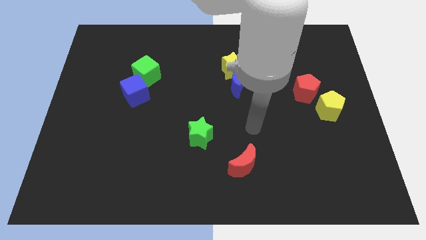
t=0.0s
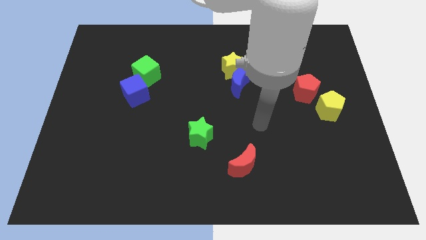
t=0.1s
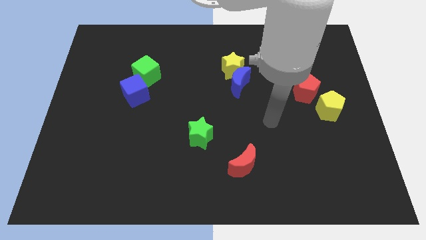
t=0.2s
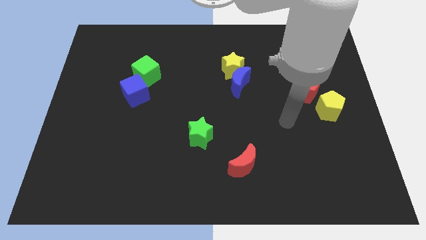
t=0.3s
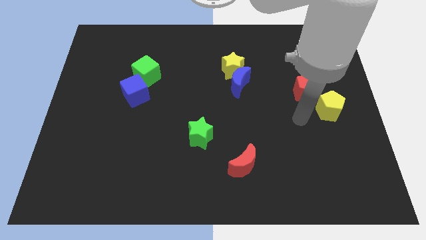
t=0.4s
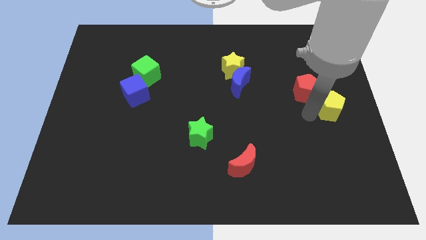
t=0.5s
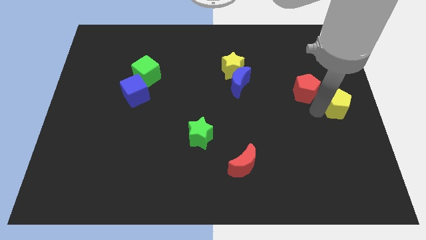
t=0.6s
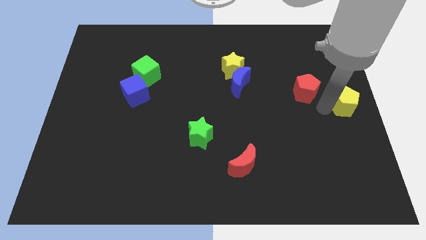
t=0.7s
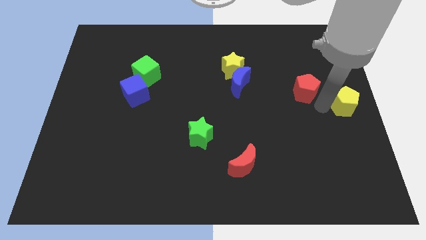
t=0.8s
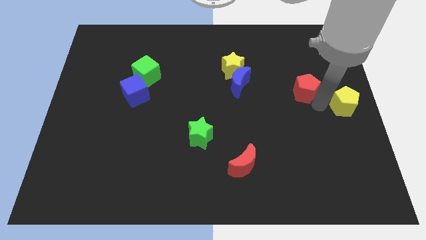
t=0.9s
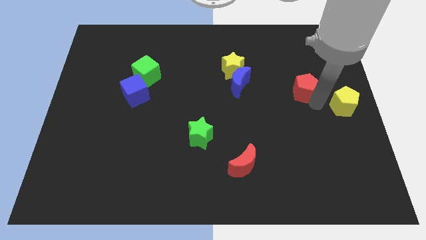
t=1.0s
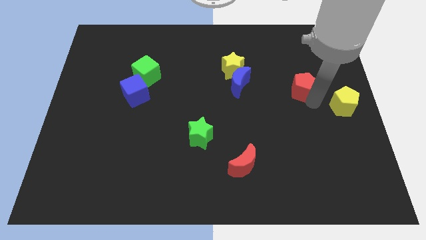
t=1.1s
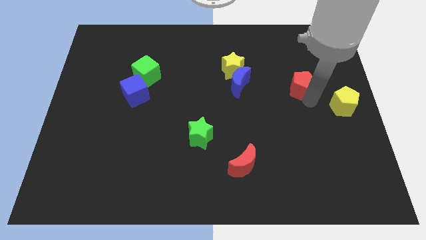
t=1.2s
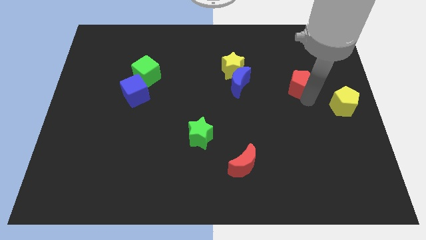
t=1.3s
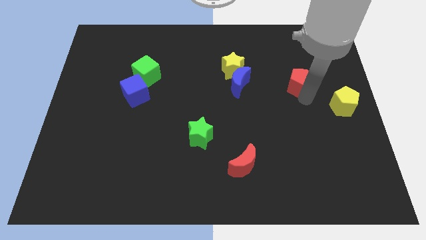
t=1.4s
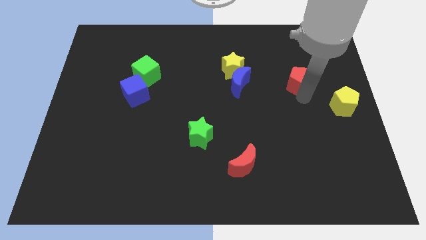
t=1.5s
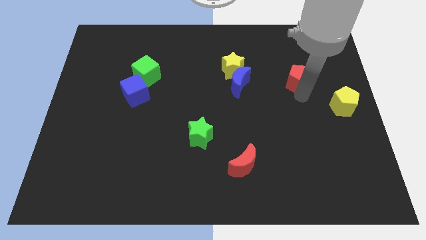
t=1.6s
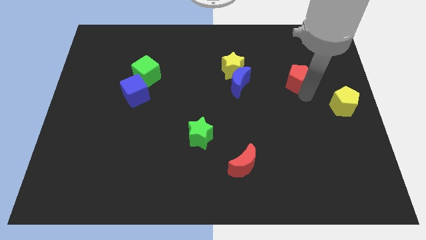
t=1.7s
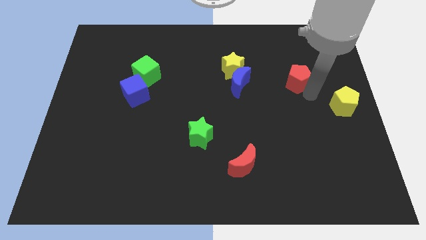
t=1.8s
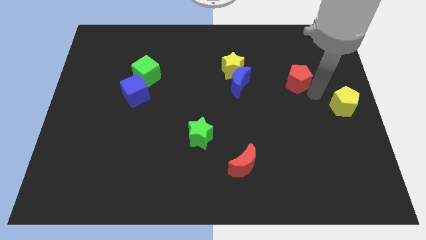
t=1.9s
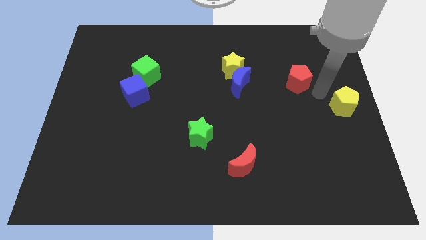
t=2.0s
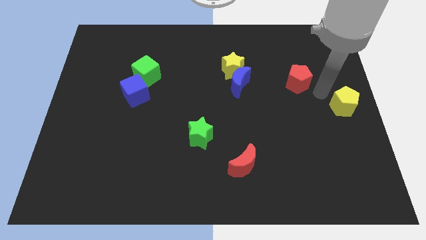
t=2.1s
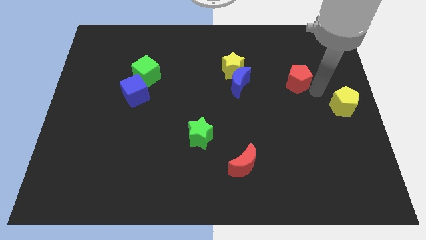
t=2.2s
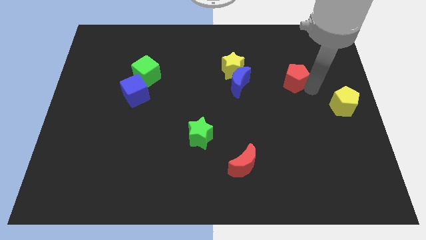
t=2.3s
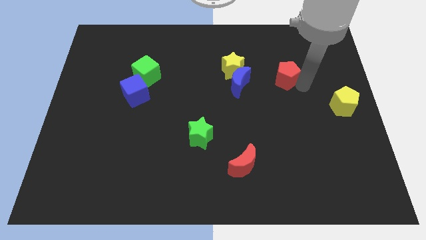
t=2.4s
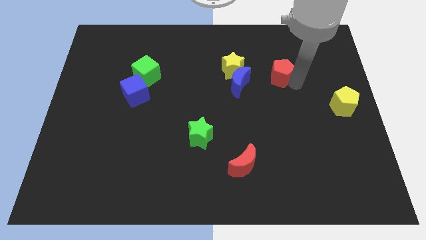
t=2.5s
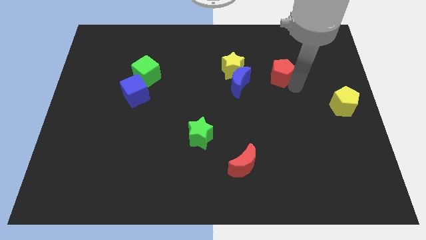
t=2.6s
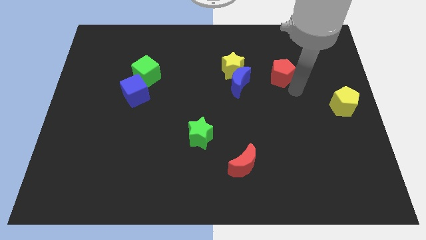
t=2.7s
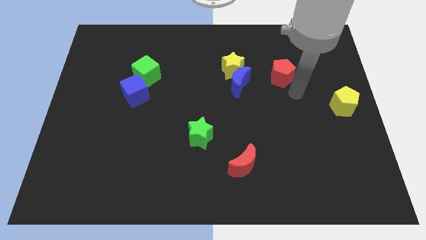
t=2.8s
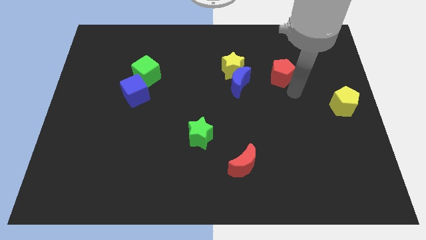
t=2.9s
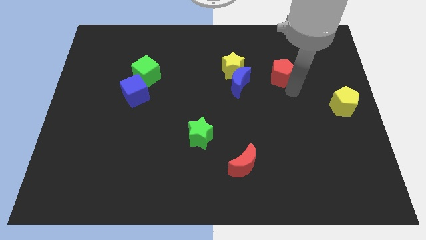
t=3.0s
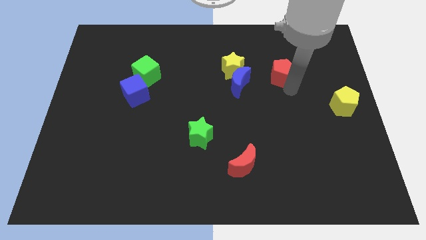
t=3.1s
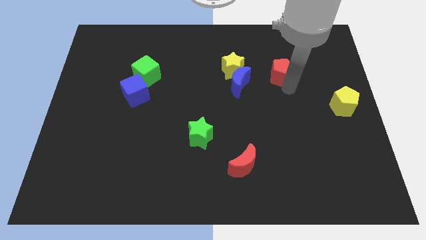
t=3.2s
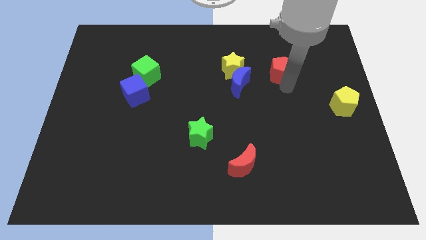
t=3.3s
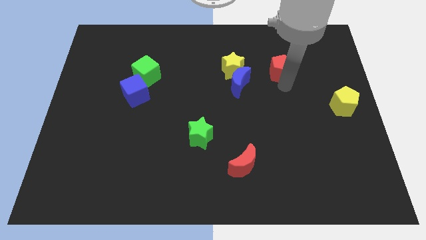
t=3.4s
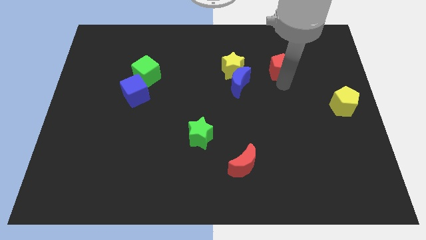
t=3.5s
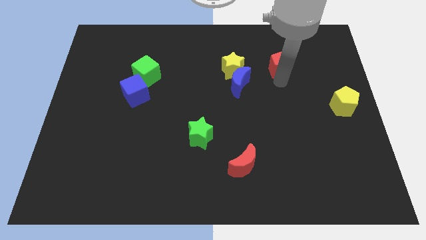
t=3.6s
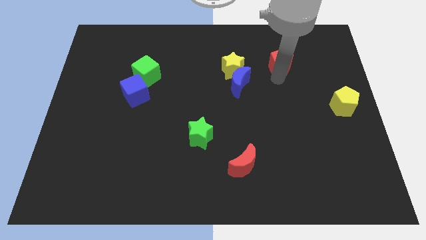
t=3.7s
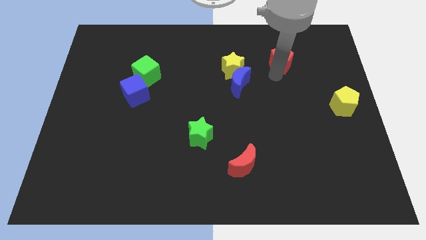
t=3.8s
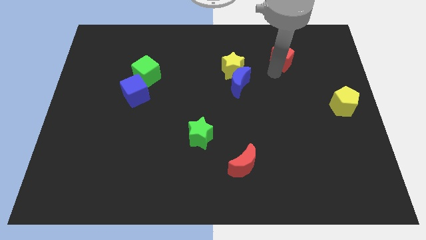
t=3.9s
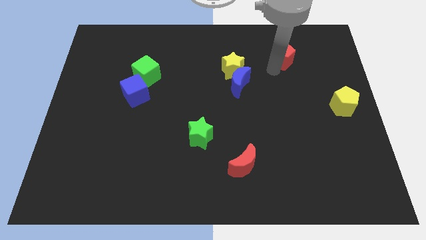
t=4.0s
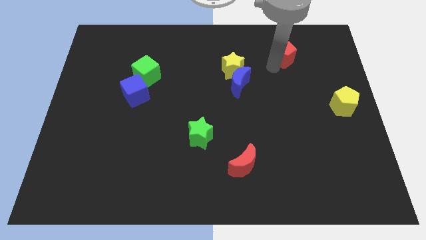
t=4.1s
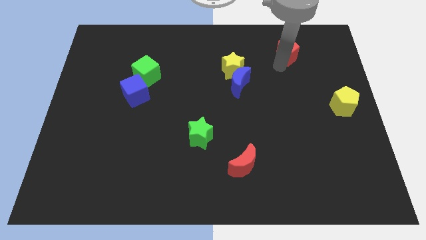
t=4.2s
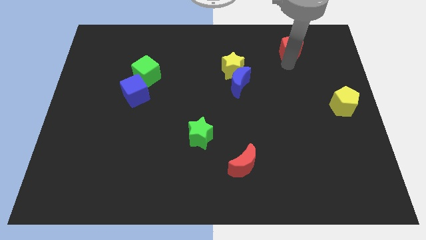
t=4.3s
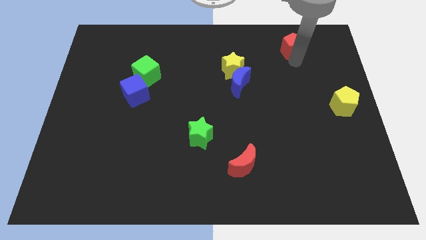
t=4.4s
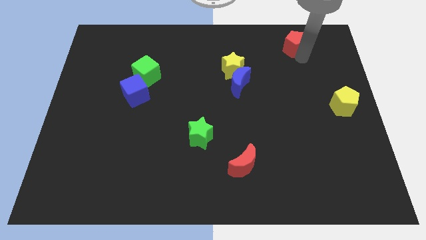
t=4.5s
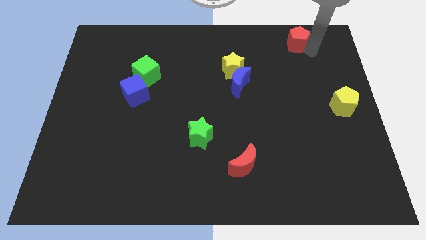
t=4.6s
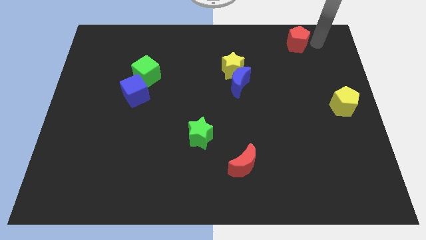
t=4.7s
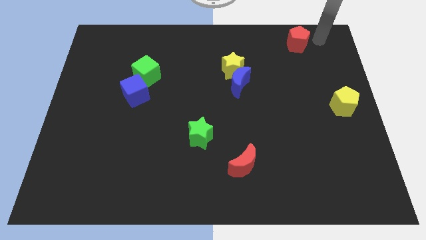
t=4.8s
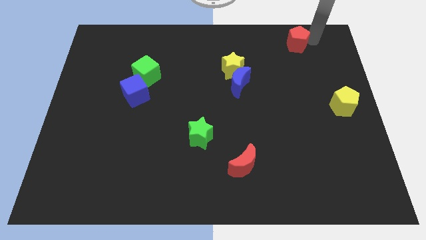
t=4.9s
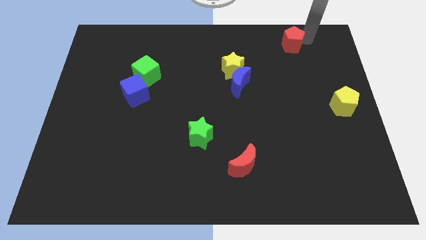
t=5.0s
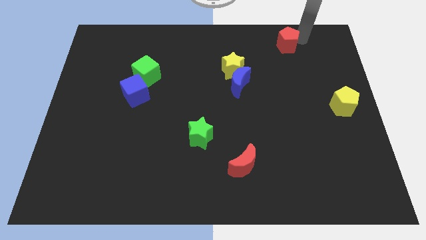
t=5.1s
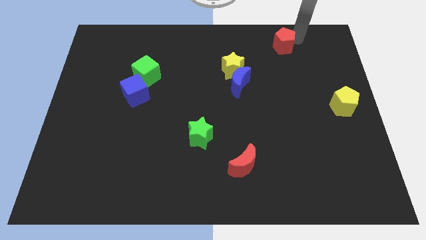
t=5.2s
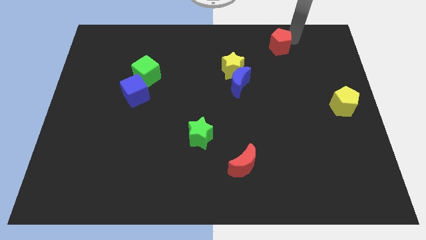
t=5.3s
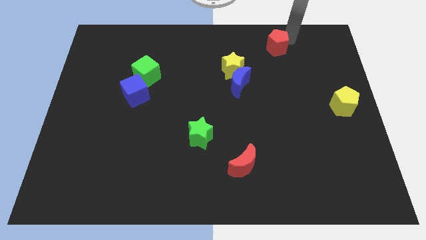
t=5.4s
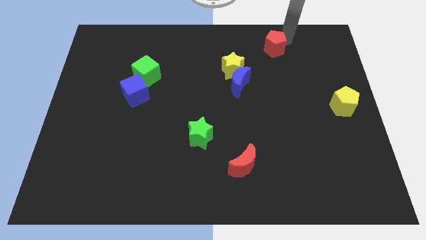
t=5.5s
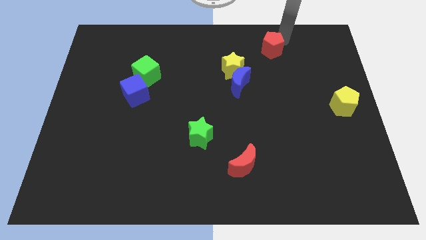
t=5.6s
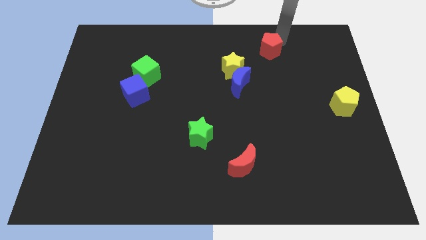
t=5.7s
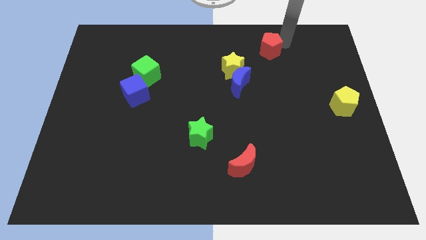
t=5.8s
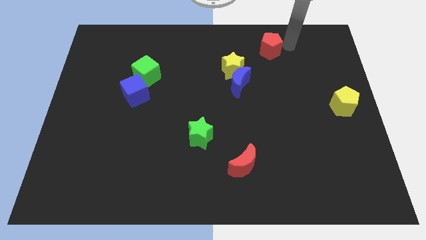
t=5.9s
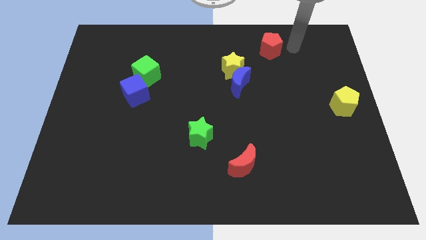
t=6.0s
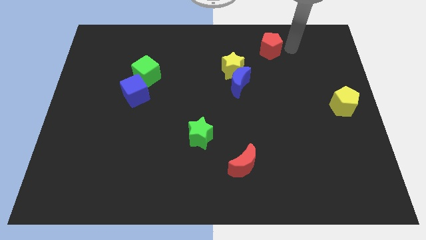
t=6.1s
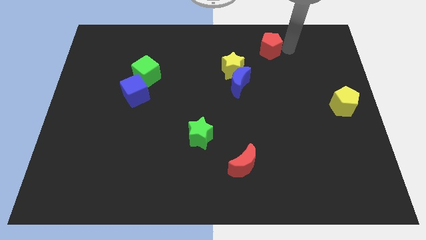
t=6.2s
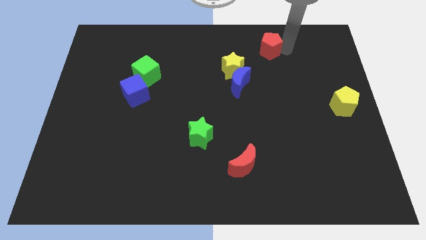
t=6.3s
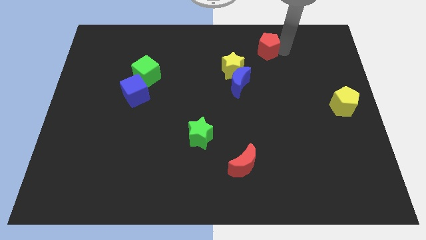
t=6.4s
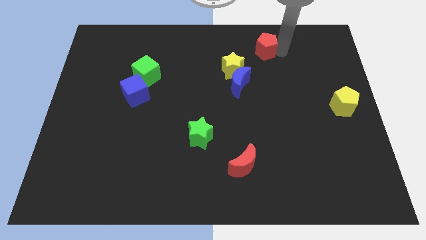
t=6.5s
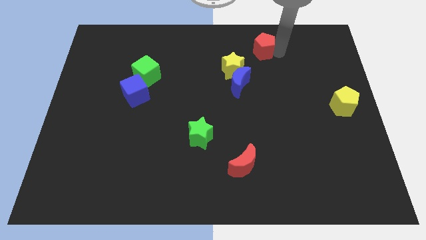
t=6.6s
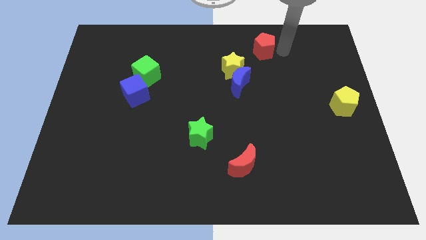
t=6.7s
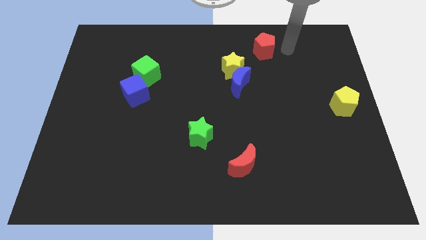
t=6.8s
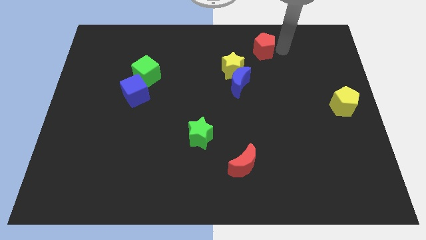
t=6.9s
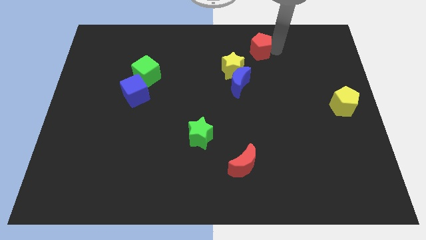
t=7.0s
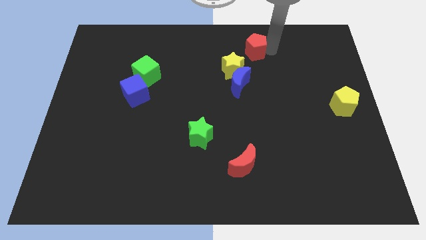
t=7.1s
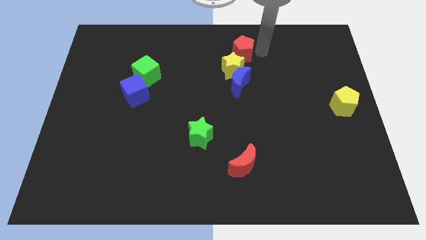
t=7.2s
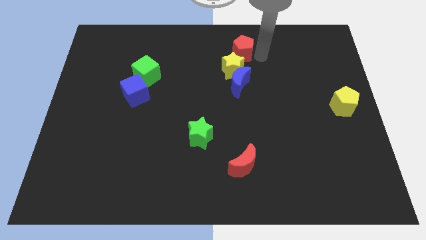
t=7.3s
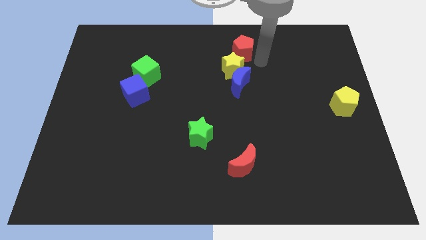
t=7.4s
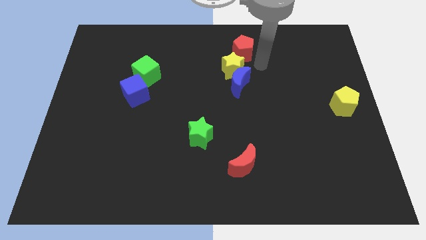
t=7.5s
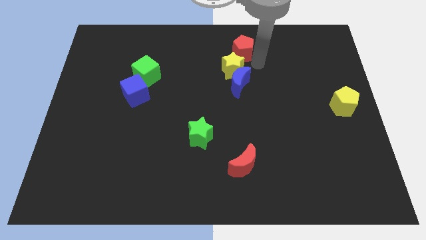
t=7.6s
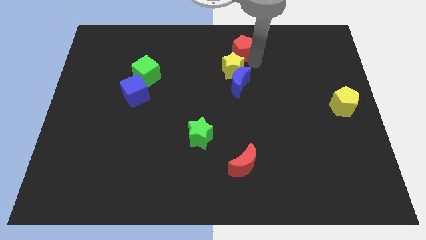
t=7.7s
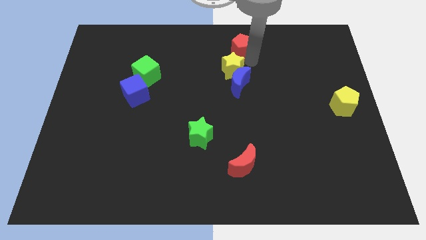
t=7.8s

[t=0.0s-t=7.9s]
move the red pentagon to the towards your base
